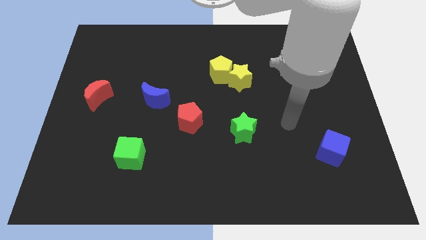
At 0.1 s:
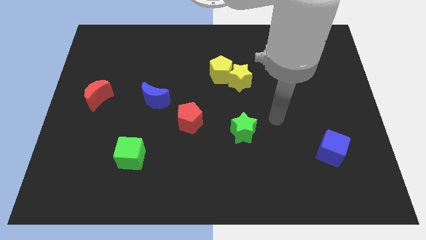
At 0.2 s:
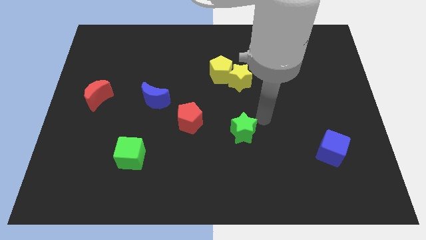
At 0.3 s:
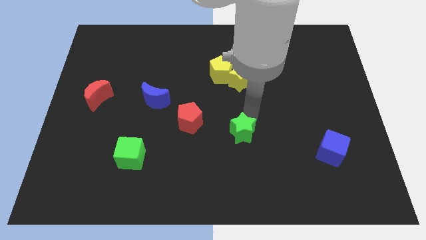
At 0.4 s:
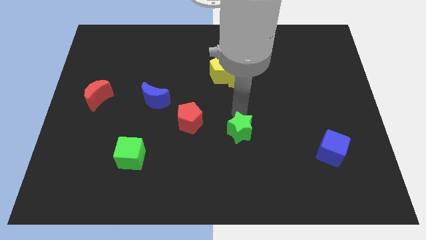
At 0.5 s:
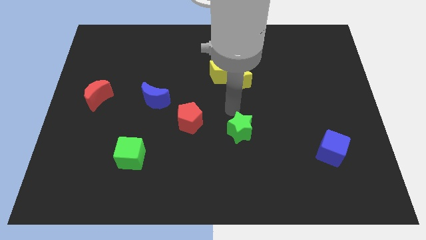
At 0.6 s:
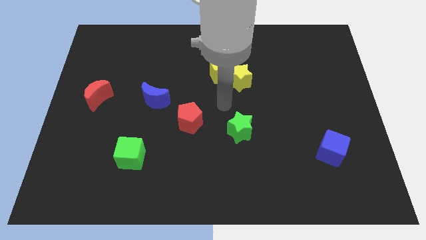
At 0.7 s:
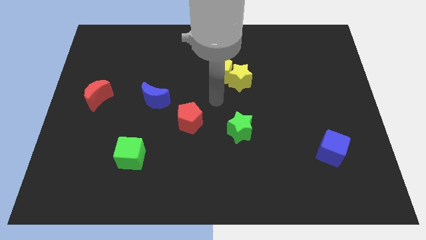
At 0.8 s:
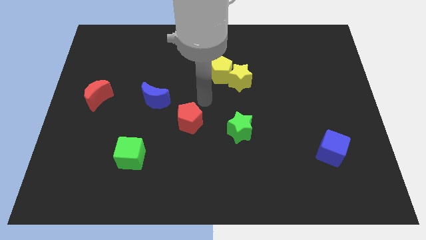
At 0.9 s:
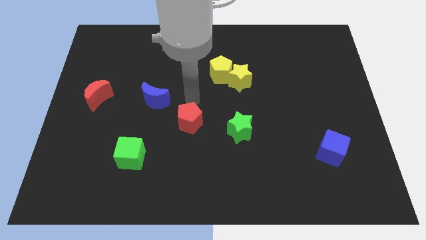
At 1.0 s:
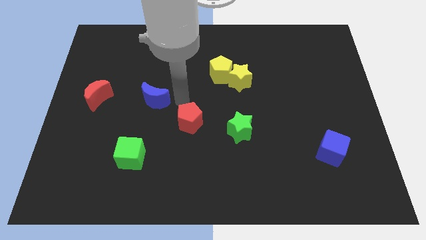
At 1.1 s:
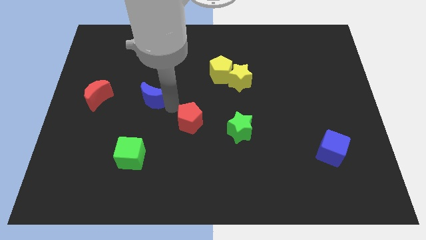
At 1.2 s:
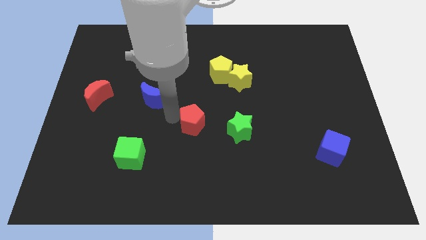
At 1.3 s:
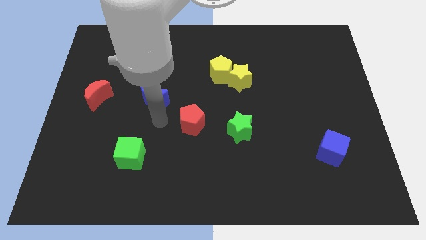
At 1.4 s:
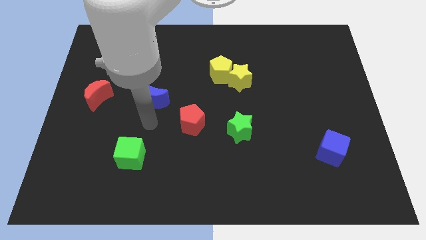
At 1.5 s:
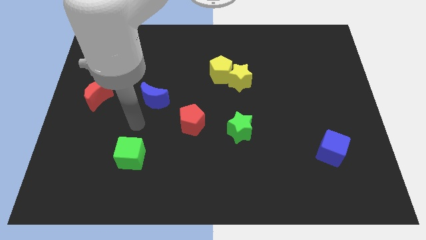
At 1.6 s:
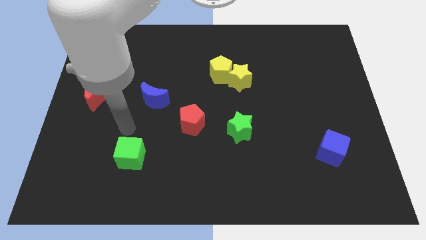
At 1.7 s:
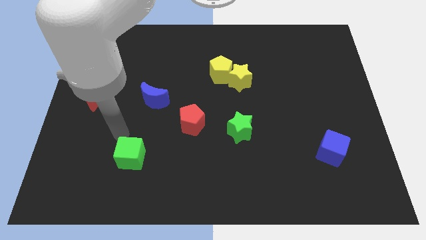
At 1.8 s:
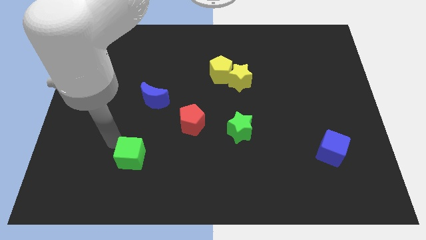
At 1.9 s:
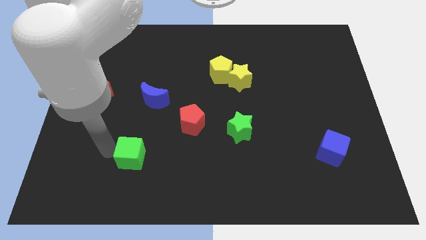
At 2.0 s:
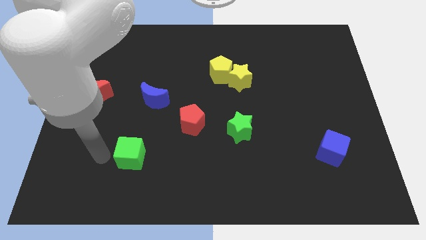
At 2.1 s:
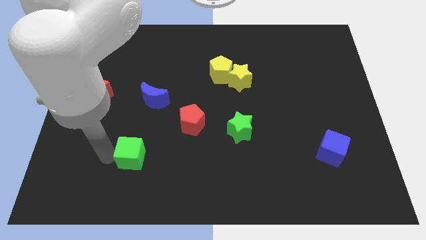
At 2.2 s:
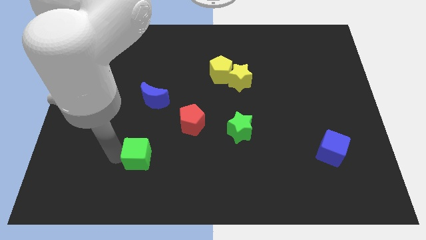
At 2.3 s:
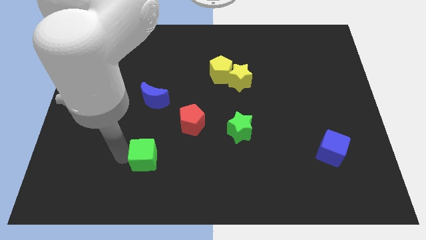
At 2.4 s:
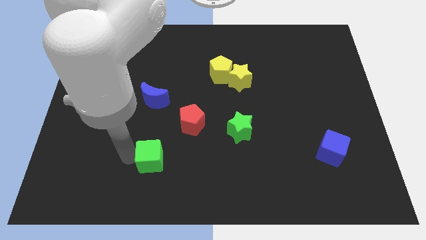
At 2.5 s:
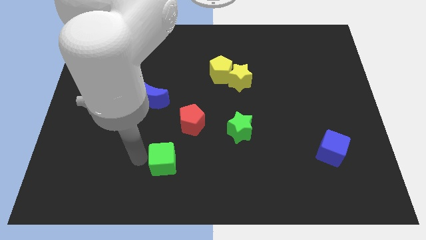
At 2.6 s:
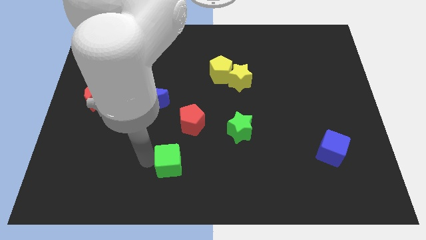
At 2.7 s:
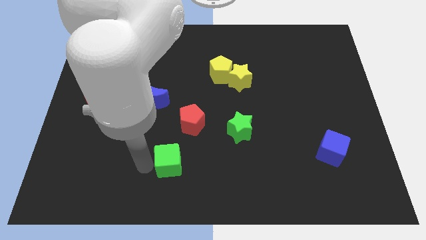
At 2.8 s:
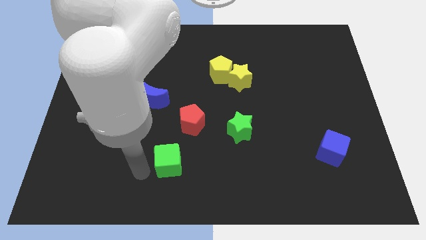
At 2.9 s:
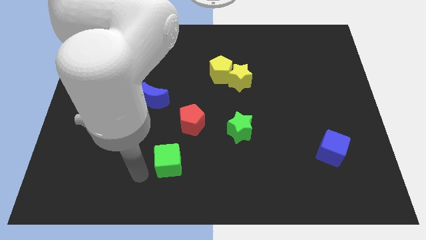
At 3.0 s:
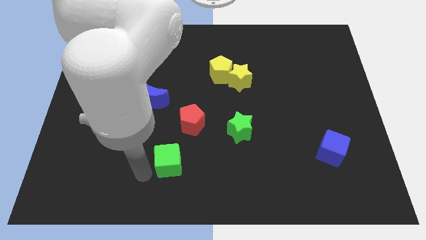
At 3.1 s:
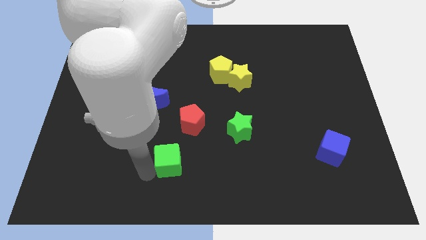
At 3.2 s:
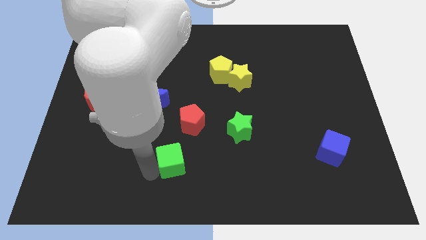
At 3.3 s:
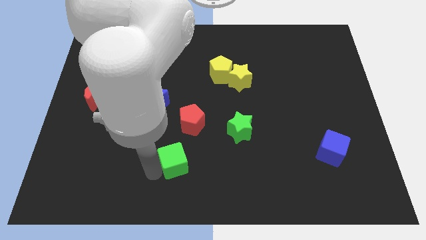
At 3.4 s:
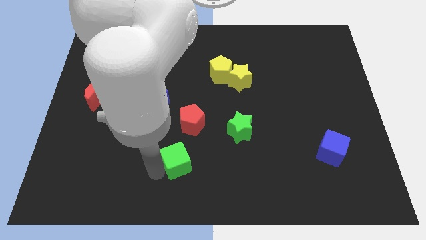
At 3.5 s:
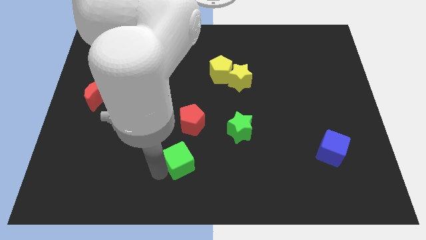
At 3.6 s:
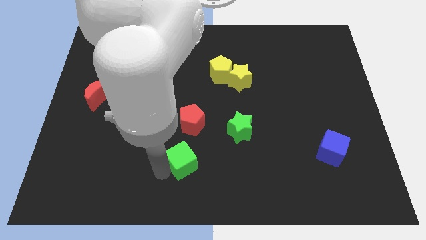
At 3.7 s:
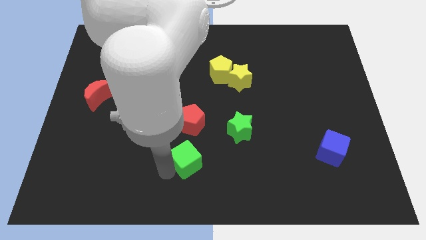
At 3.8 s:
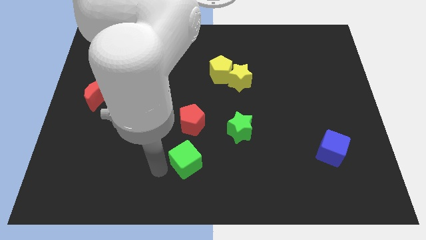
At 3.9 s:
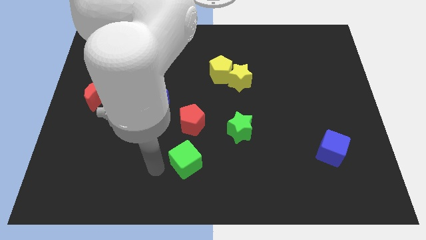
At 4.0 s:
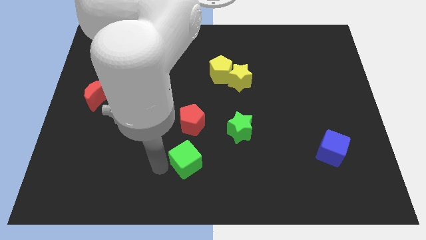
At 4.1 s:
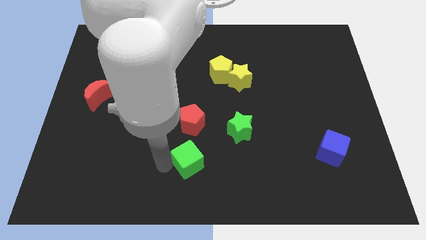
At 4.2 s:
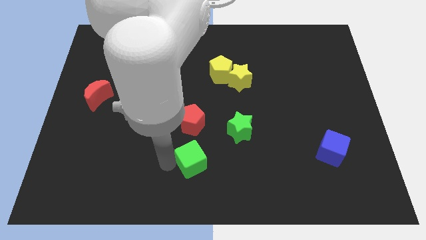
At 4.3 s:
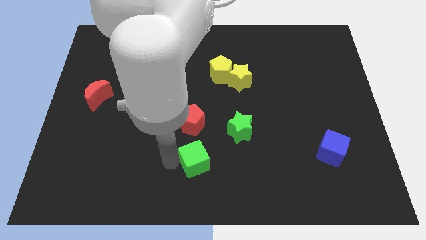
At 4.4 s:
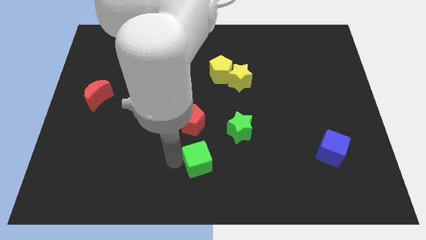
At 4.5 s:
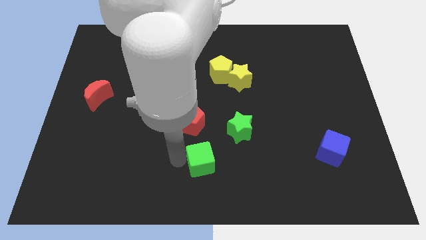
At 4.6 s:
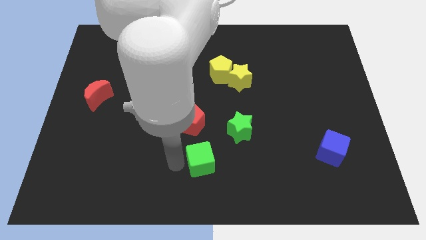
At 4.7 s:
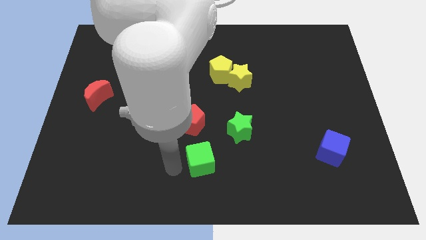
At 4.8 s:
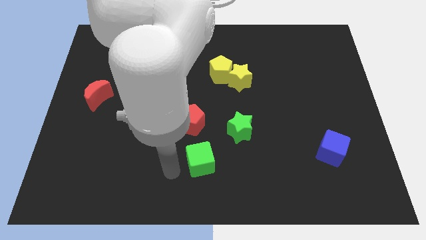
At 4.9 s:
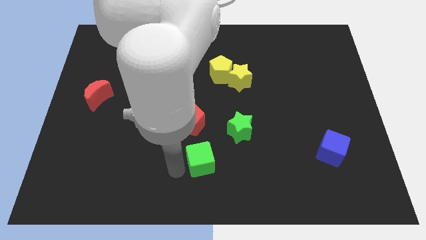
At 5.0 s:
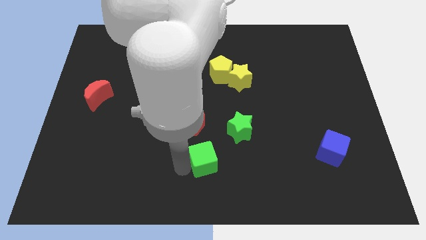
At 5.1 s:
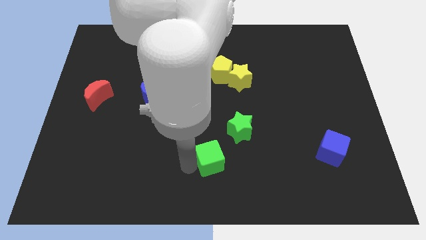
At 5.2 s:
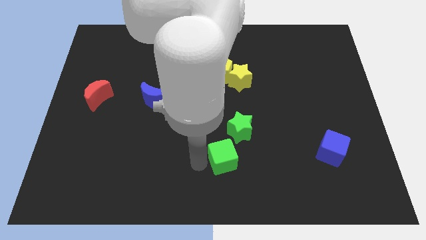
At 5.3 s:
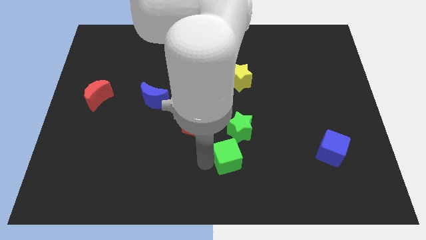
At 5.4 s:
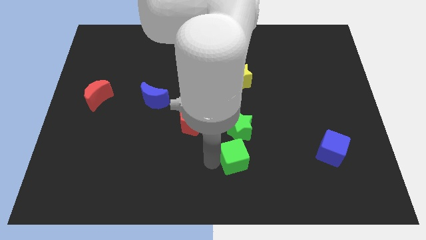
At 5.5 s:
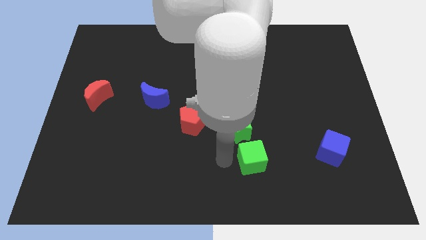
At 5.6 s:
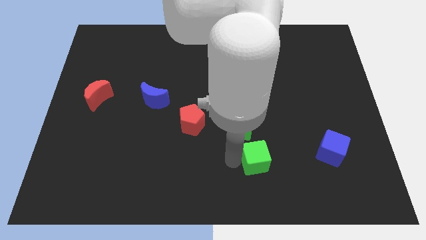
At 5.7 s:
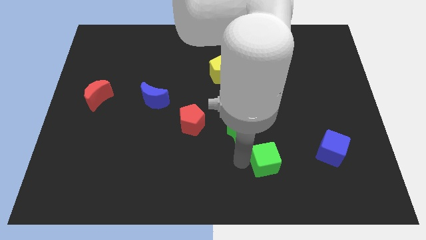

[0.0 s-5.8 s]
move the green cube to the left of the blue cube
